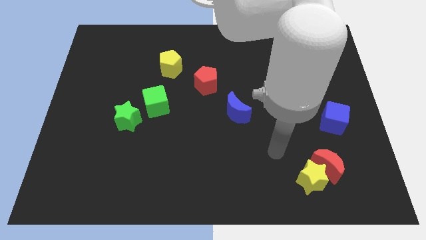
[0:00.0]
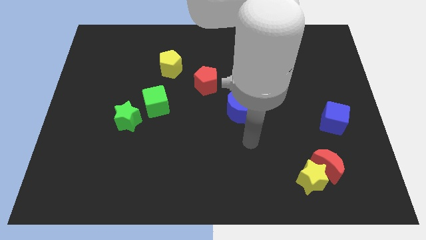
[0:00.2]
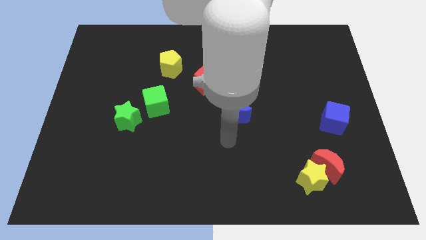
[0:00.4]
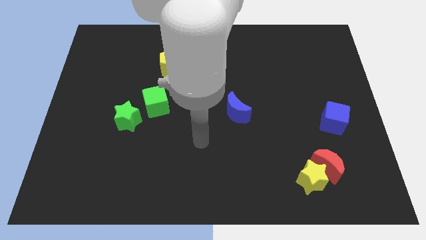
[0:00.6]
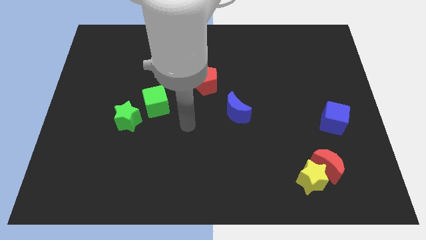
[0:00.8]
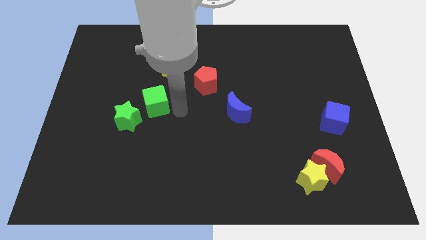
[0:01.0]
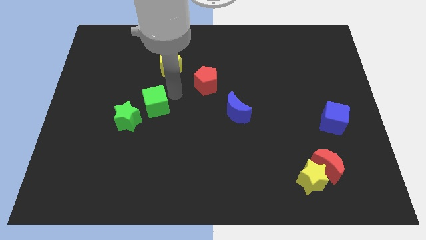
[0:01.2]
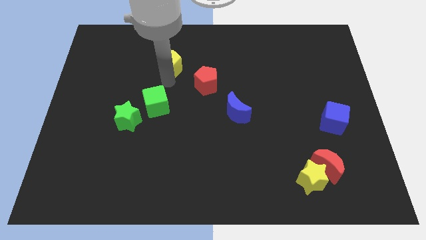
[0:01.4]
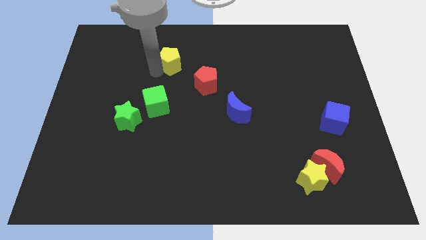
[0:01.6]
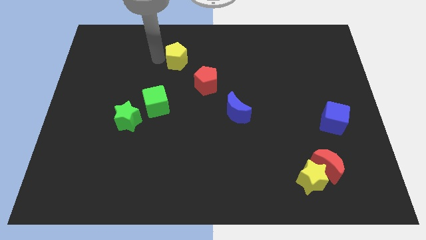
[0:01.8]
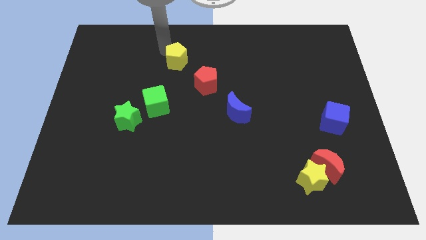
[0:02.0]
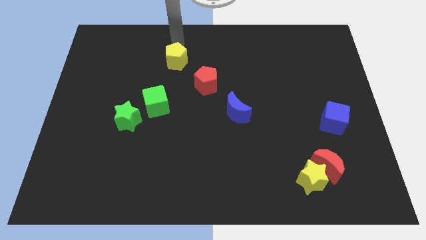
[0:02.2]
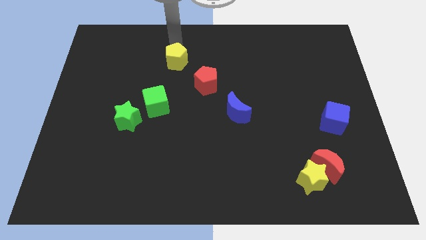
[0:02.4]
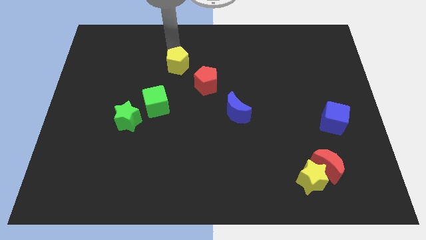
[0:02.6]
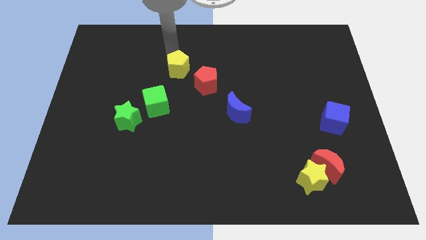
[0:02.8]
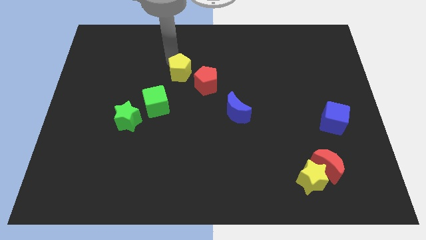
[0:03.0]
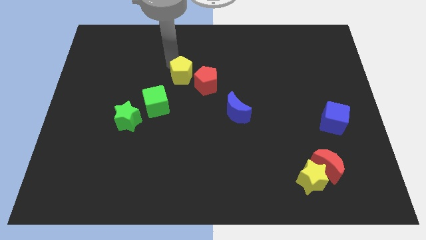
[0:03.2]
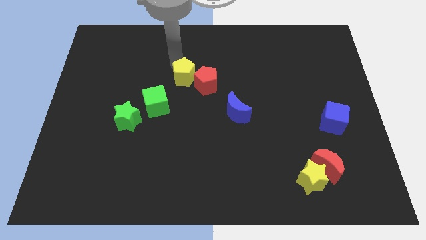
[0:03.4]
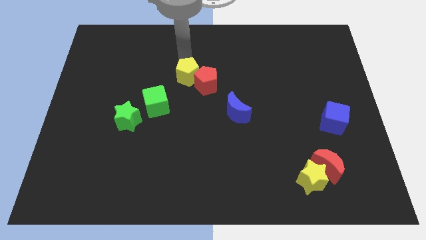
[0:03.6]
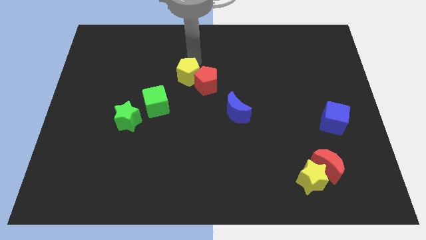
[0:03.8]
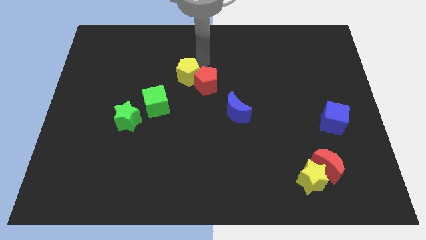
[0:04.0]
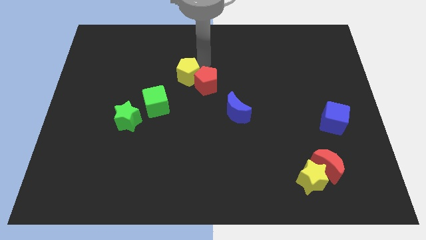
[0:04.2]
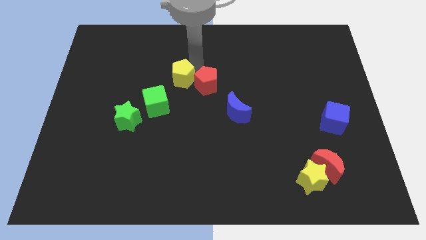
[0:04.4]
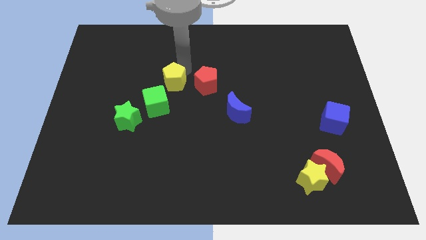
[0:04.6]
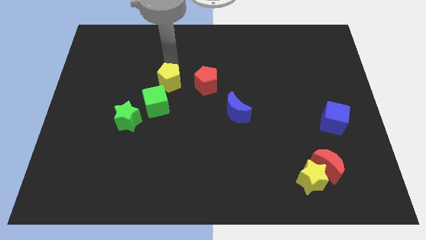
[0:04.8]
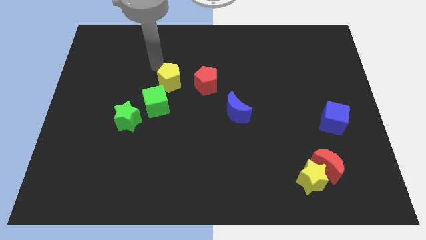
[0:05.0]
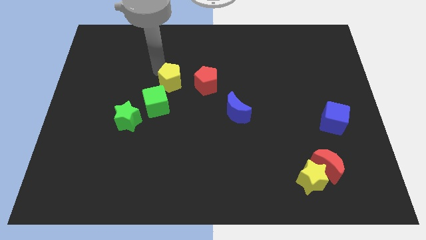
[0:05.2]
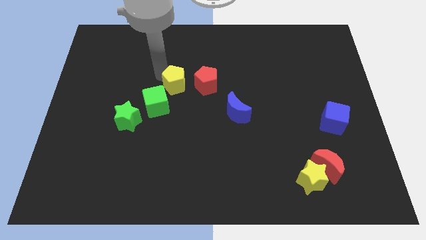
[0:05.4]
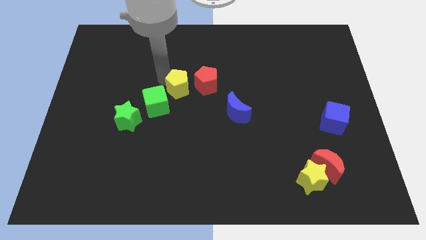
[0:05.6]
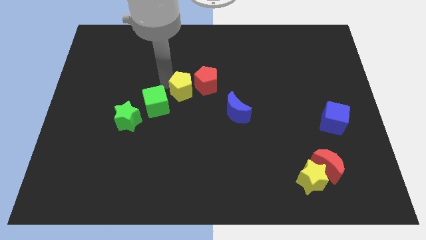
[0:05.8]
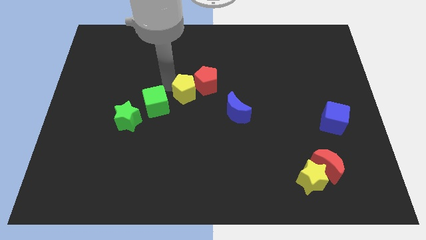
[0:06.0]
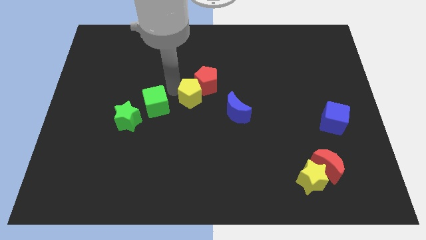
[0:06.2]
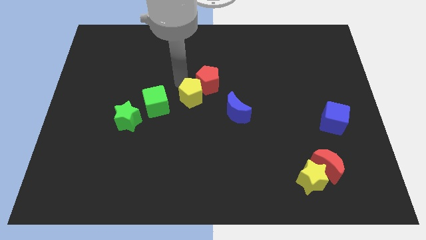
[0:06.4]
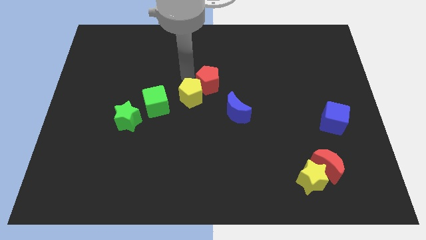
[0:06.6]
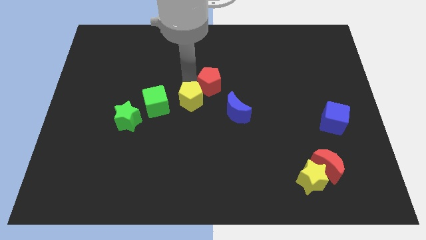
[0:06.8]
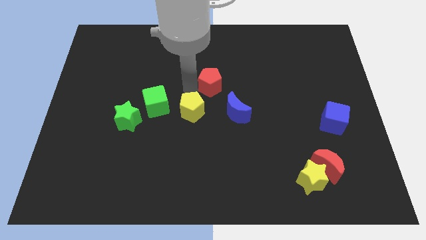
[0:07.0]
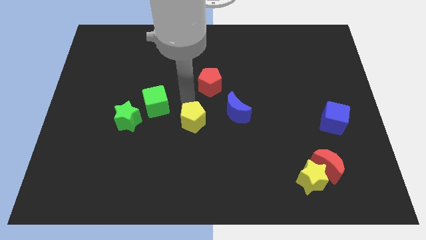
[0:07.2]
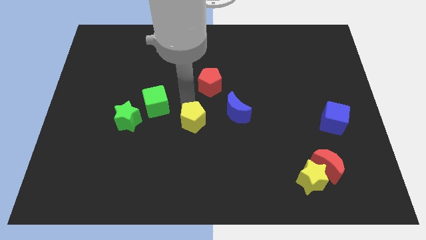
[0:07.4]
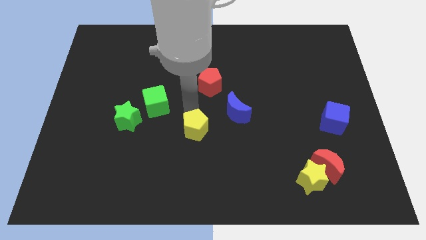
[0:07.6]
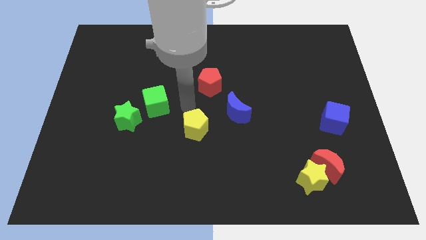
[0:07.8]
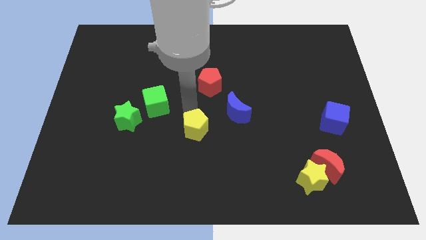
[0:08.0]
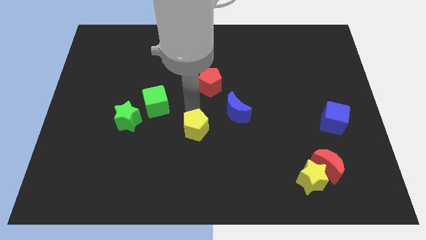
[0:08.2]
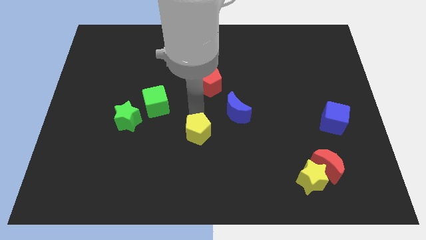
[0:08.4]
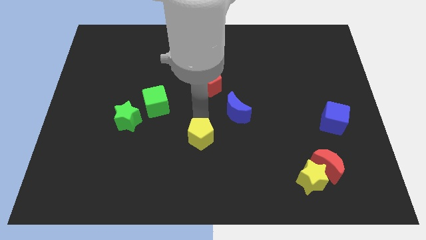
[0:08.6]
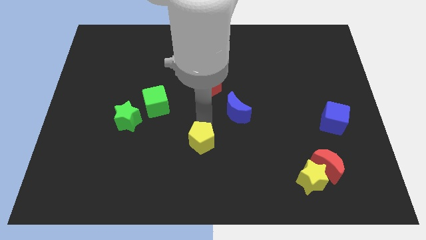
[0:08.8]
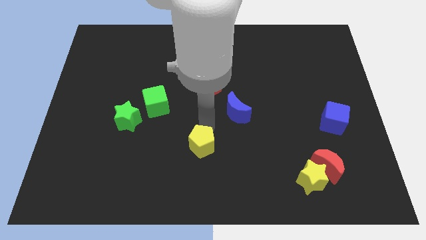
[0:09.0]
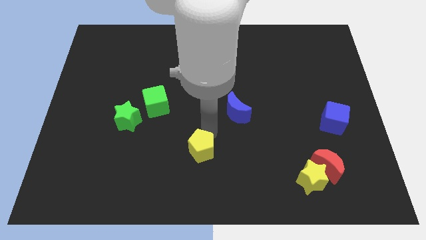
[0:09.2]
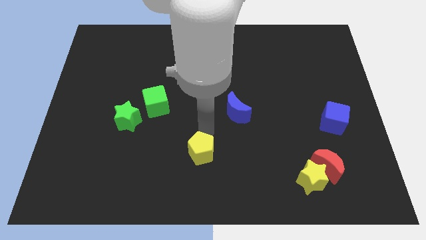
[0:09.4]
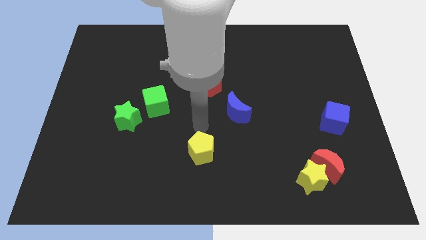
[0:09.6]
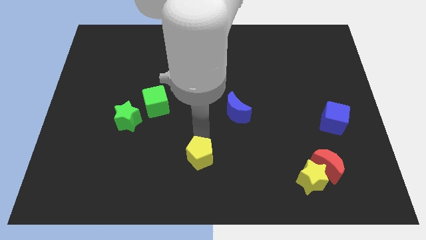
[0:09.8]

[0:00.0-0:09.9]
move the yellow pentagon to the bottom side

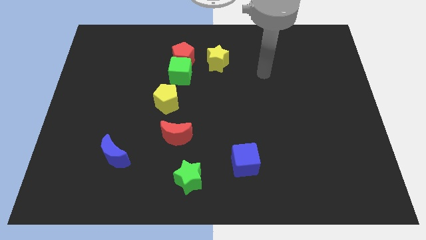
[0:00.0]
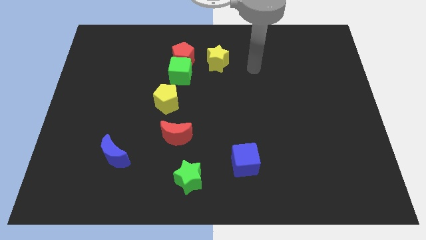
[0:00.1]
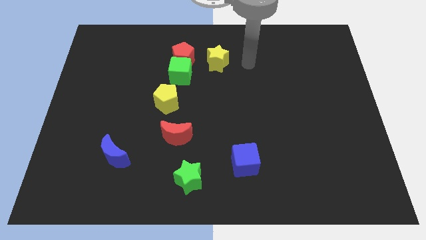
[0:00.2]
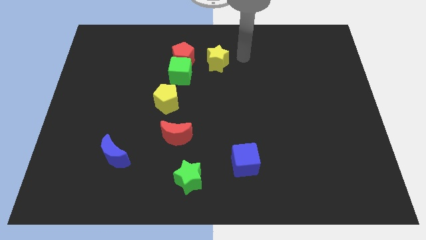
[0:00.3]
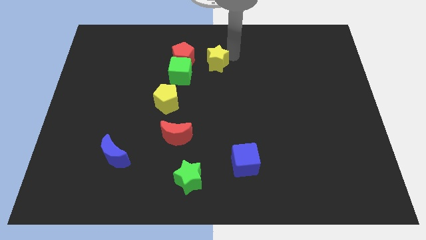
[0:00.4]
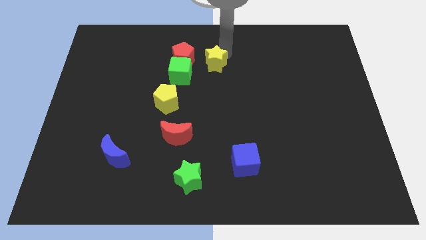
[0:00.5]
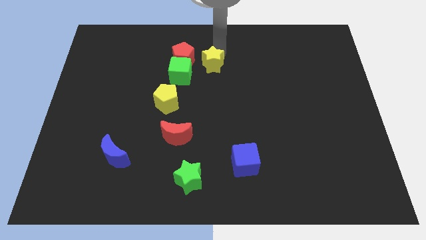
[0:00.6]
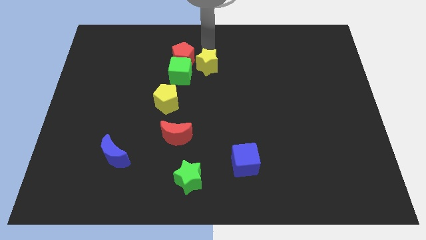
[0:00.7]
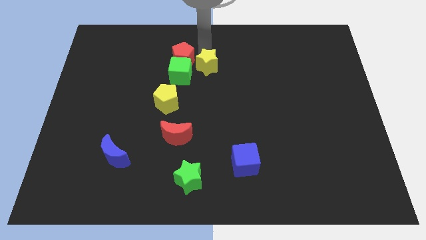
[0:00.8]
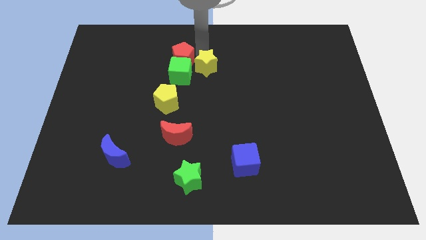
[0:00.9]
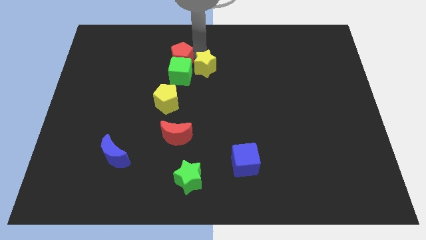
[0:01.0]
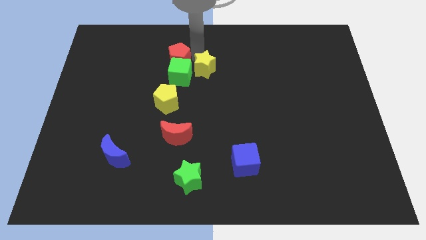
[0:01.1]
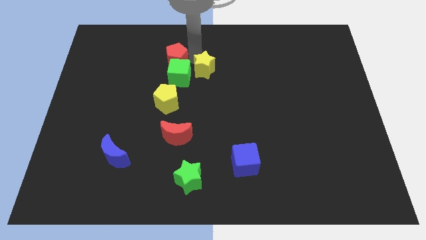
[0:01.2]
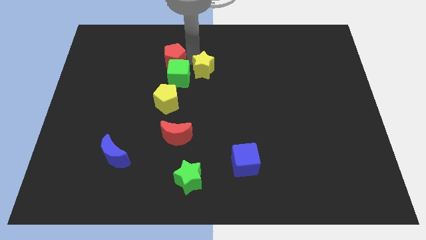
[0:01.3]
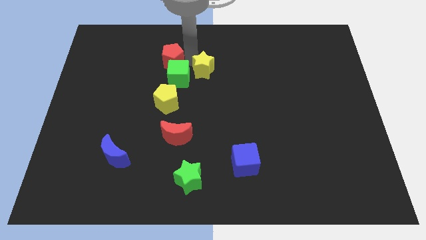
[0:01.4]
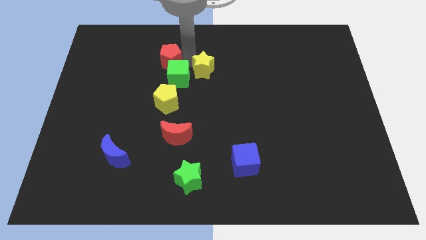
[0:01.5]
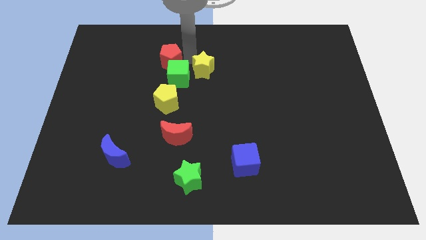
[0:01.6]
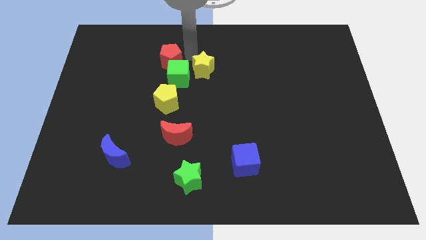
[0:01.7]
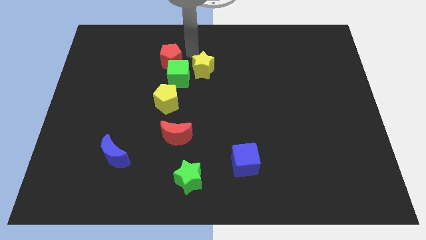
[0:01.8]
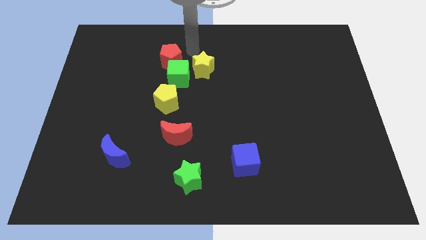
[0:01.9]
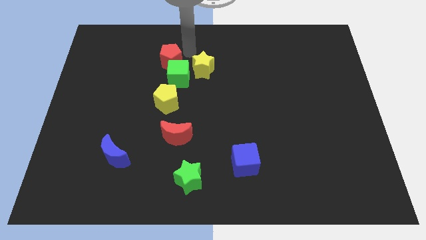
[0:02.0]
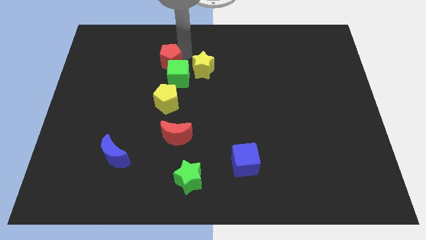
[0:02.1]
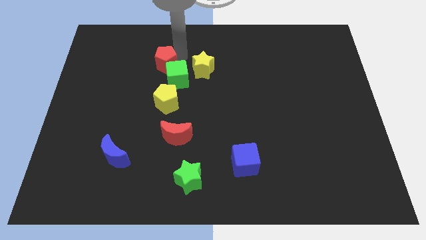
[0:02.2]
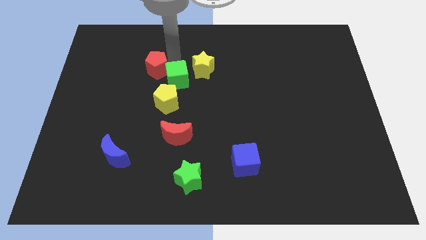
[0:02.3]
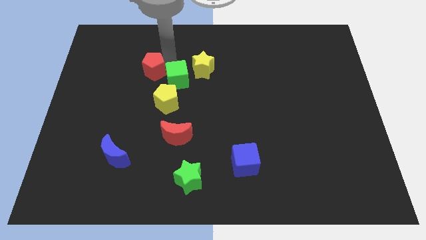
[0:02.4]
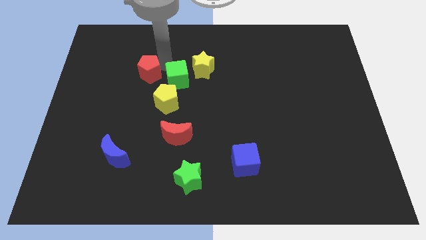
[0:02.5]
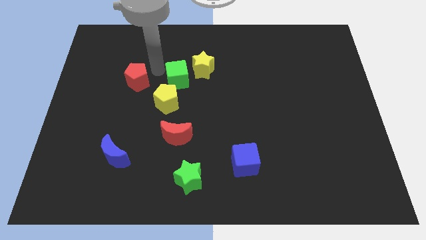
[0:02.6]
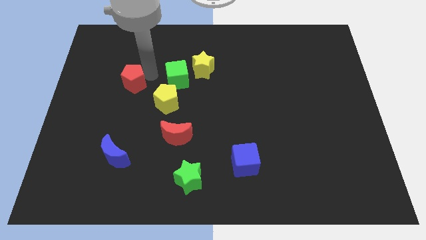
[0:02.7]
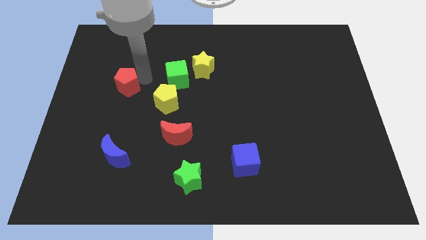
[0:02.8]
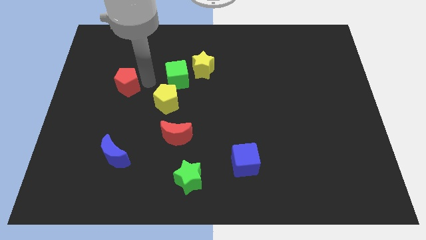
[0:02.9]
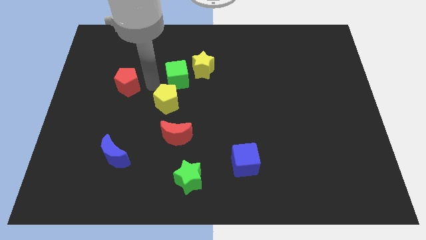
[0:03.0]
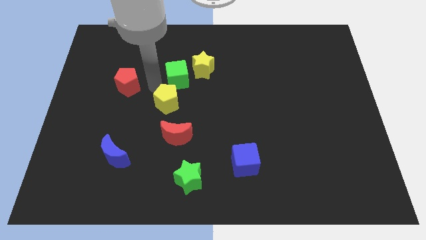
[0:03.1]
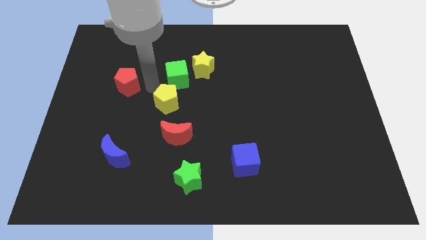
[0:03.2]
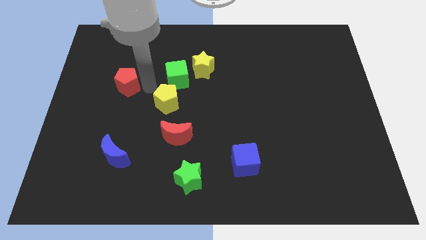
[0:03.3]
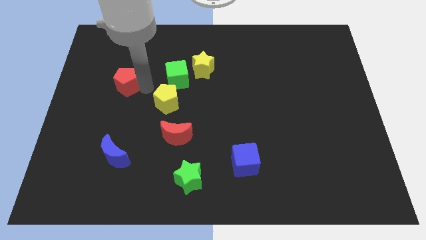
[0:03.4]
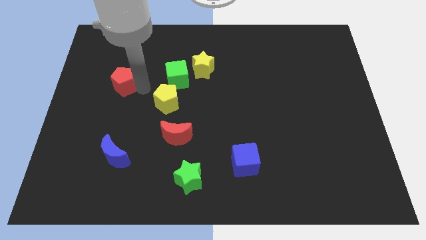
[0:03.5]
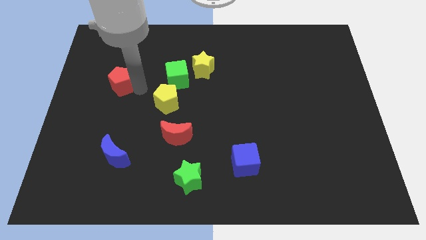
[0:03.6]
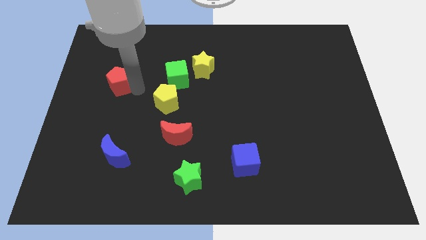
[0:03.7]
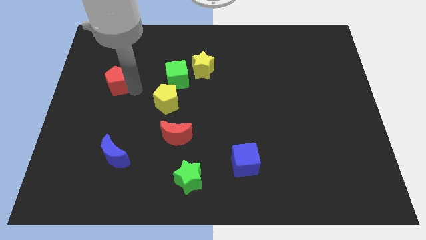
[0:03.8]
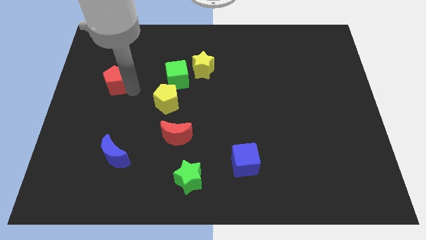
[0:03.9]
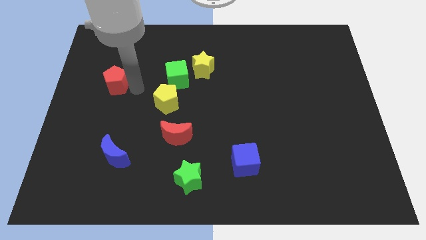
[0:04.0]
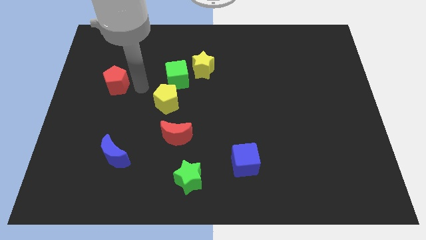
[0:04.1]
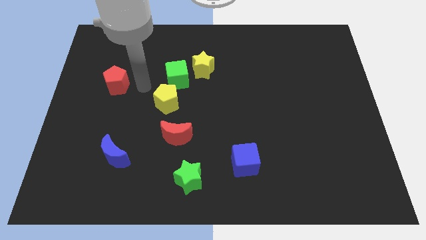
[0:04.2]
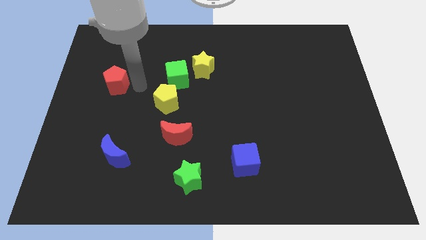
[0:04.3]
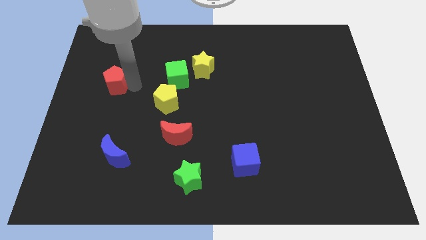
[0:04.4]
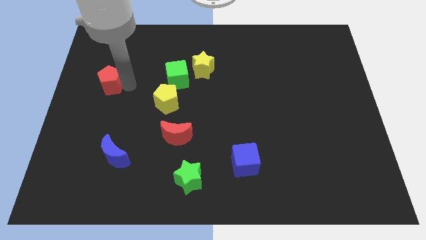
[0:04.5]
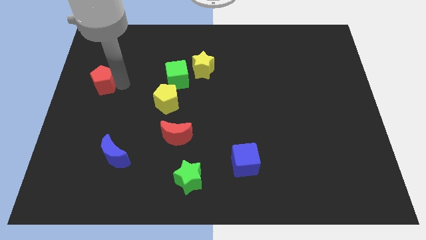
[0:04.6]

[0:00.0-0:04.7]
slide the red pentagon to the left side
